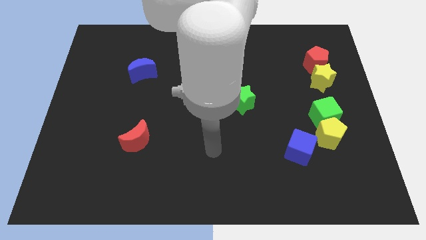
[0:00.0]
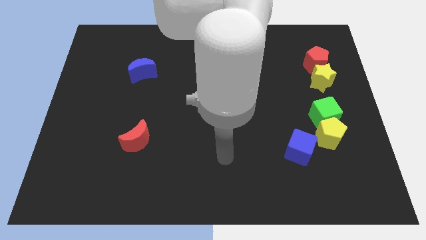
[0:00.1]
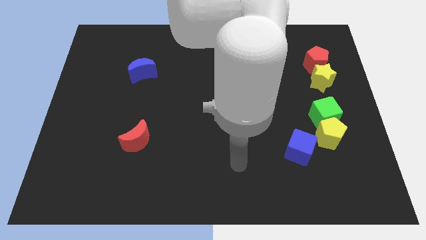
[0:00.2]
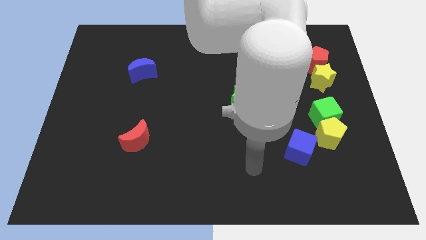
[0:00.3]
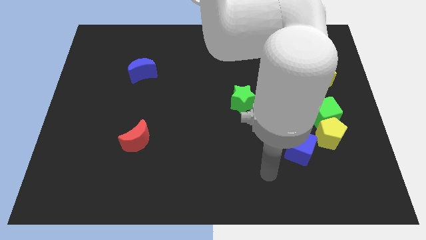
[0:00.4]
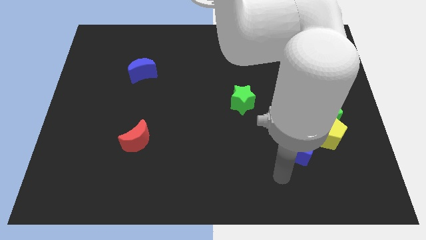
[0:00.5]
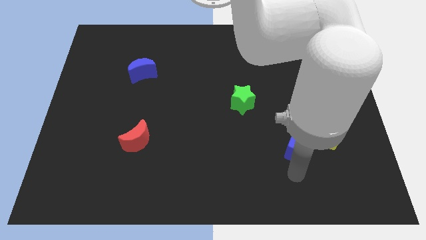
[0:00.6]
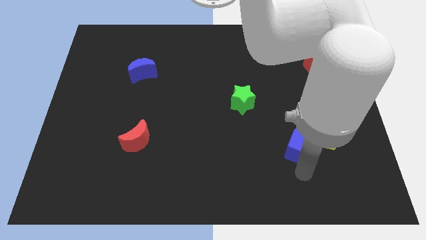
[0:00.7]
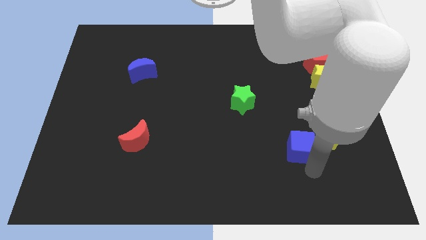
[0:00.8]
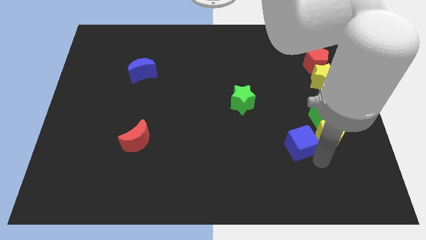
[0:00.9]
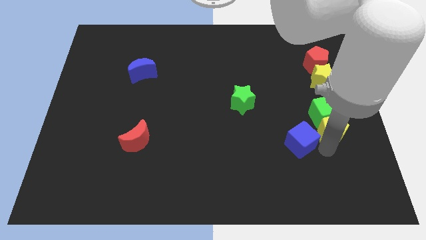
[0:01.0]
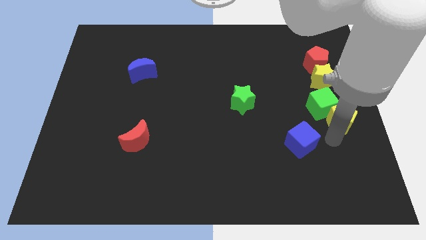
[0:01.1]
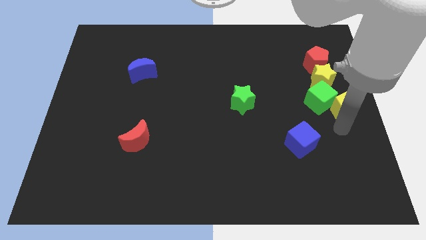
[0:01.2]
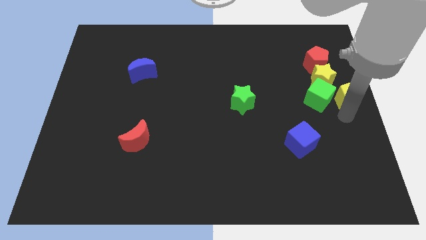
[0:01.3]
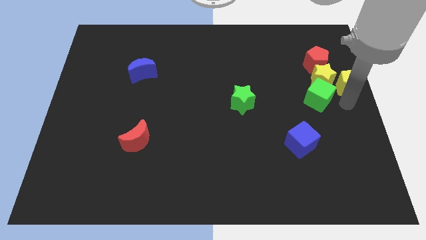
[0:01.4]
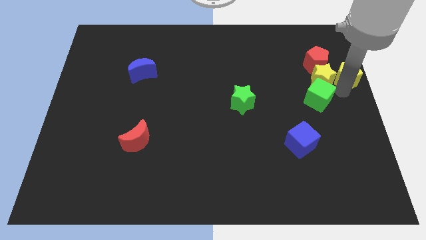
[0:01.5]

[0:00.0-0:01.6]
move the green cube away from the yellow pentagon

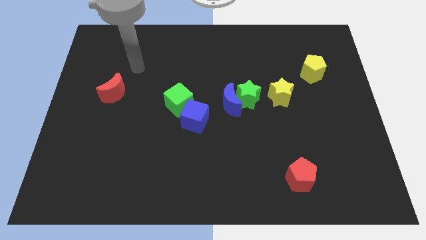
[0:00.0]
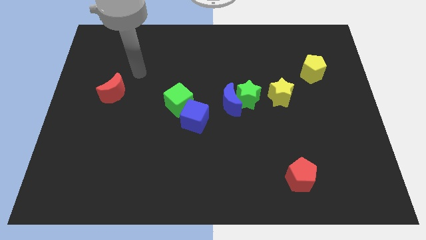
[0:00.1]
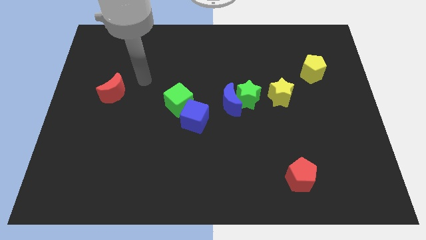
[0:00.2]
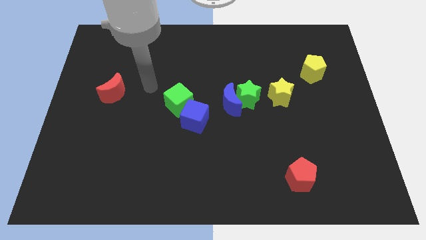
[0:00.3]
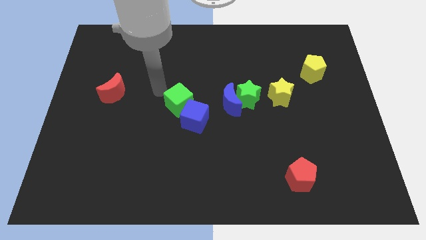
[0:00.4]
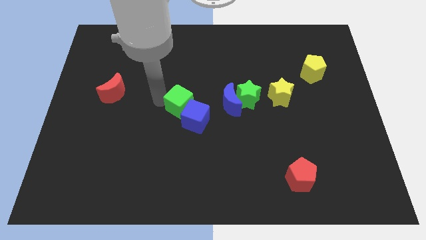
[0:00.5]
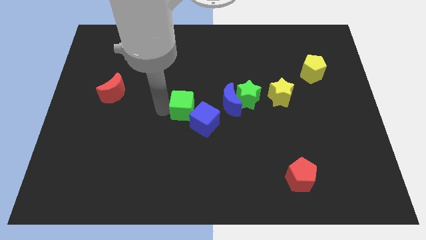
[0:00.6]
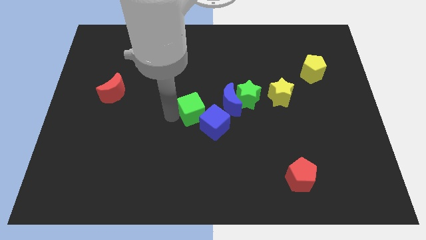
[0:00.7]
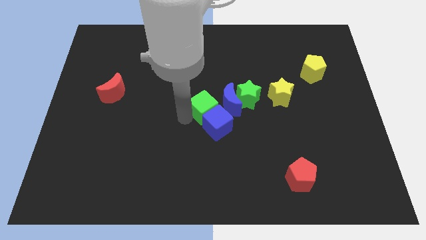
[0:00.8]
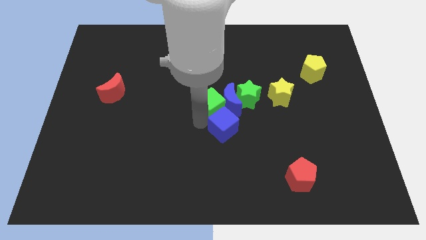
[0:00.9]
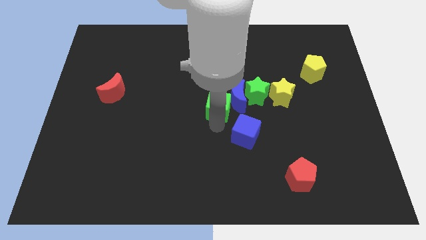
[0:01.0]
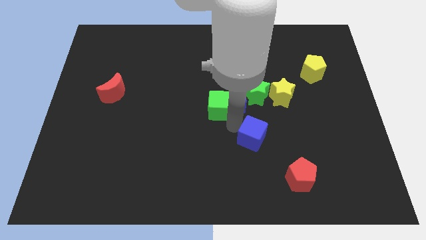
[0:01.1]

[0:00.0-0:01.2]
move the green cube away from the blue cube

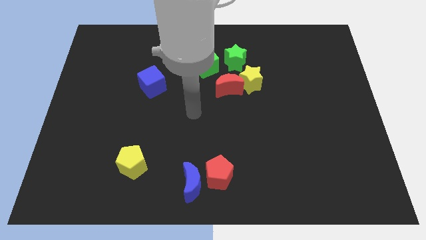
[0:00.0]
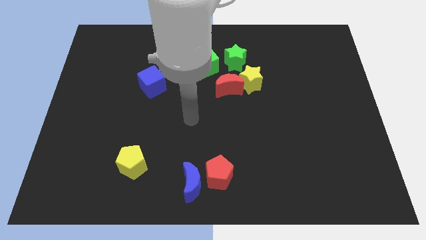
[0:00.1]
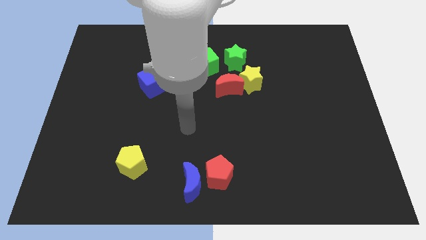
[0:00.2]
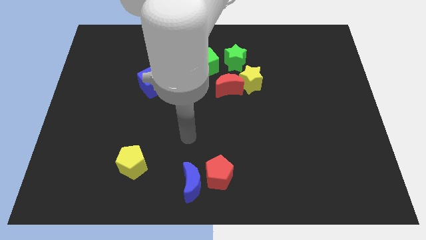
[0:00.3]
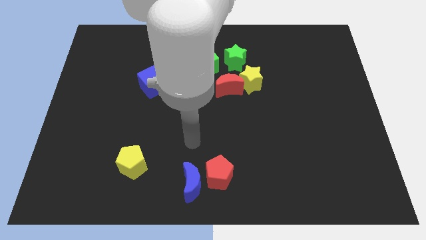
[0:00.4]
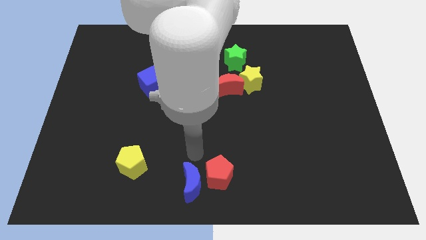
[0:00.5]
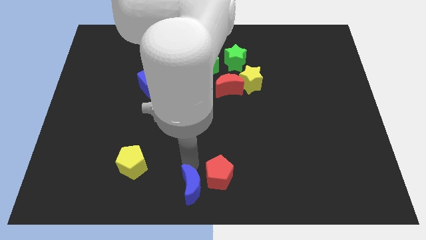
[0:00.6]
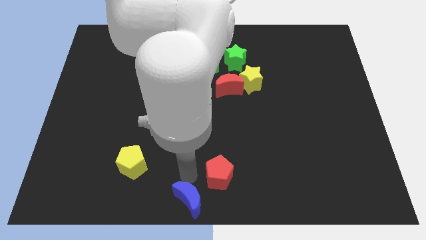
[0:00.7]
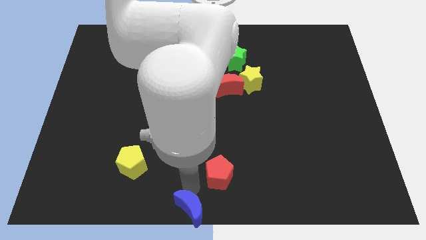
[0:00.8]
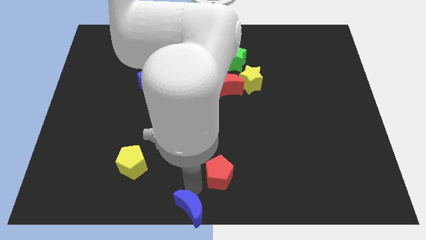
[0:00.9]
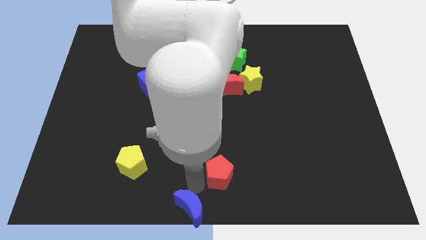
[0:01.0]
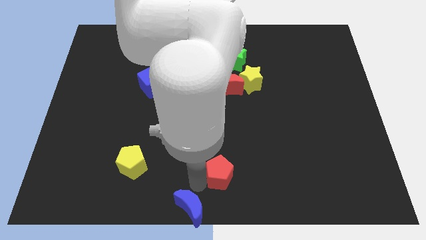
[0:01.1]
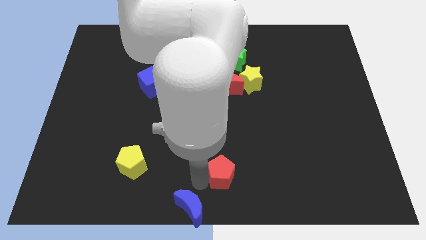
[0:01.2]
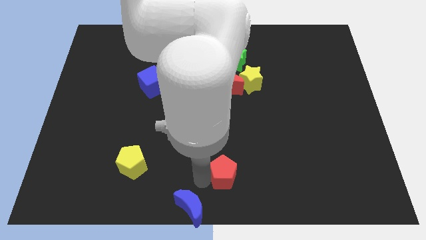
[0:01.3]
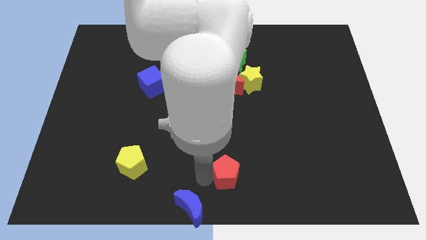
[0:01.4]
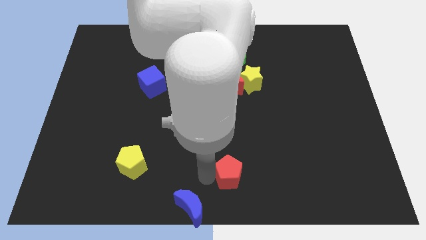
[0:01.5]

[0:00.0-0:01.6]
separate the red pentagon from the blue moon

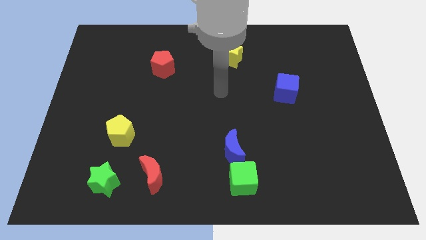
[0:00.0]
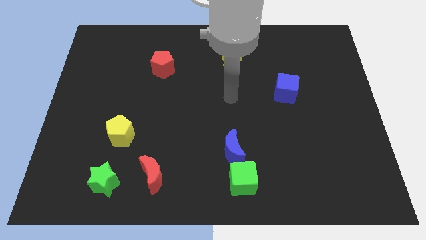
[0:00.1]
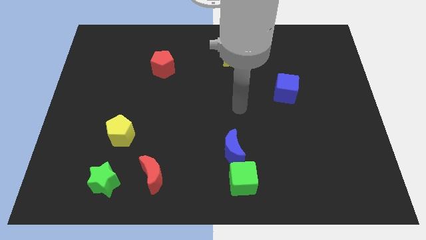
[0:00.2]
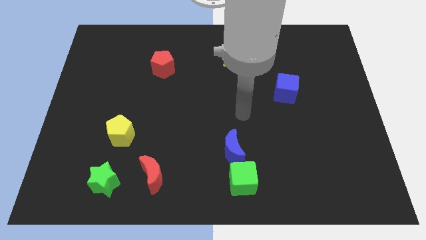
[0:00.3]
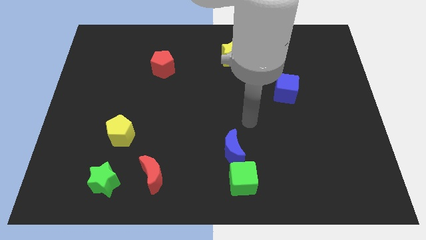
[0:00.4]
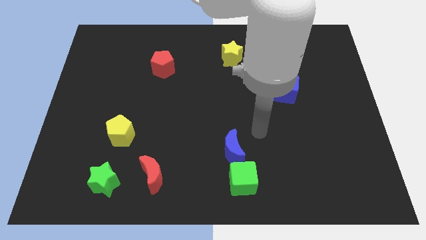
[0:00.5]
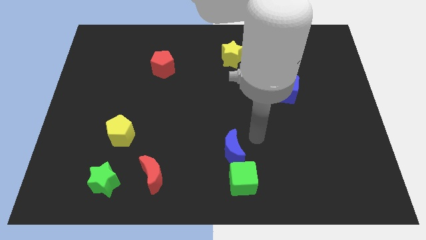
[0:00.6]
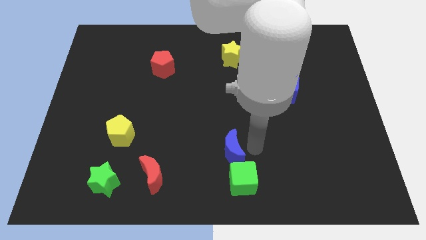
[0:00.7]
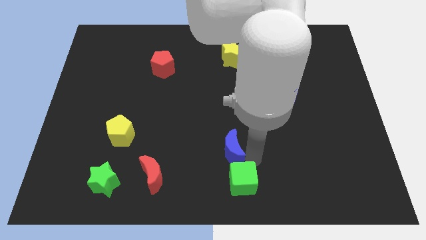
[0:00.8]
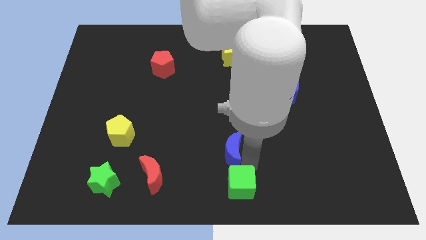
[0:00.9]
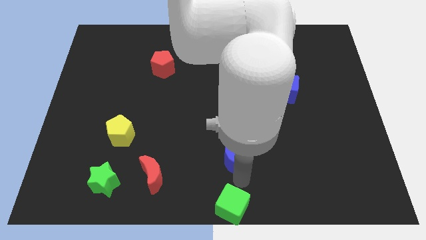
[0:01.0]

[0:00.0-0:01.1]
pull the blue moon apart from the green cube

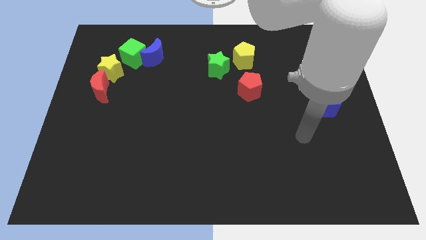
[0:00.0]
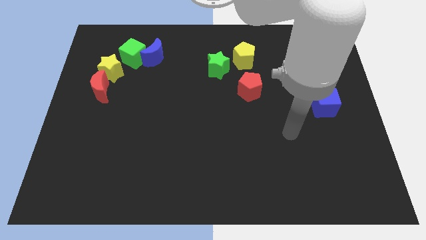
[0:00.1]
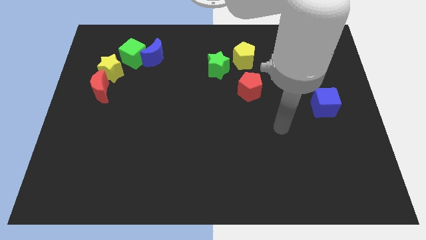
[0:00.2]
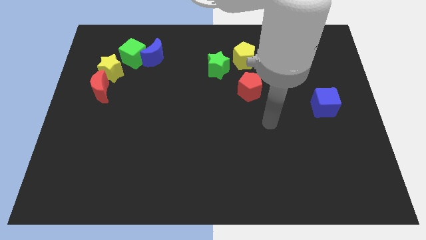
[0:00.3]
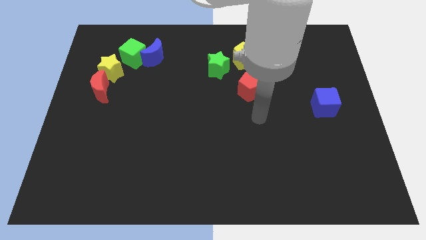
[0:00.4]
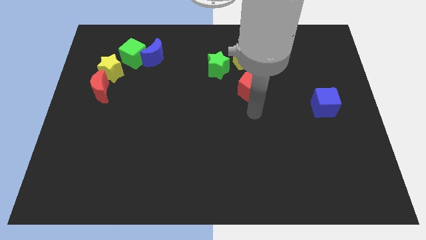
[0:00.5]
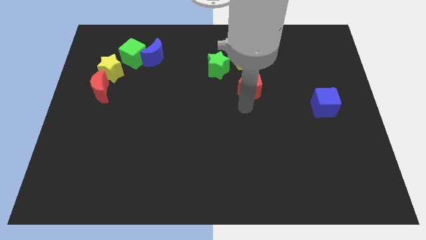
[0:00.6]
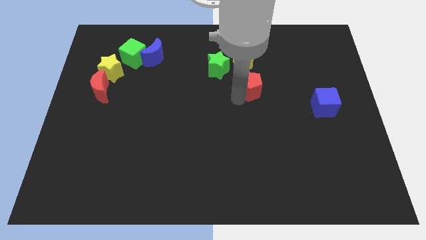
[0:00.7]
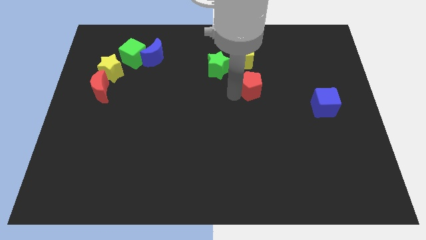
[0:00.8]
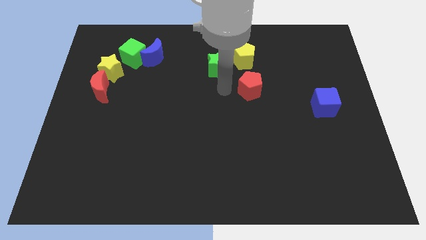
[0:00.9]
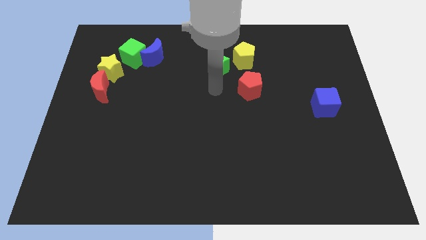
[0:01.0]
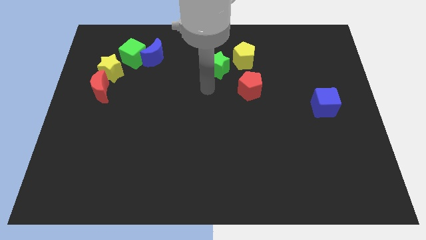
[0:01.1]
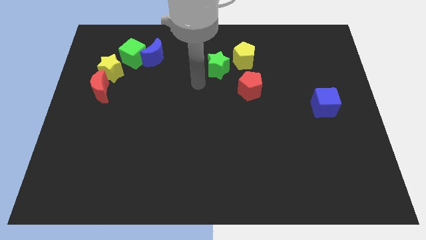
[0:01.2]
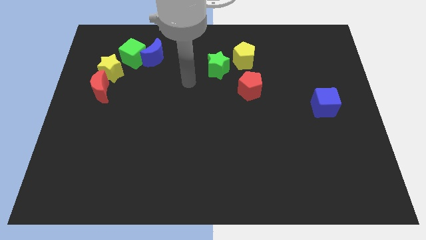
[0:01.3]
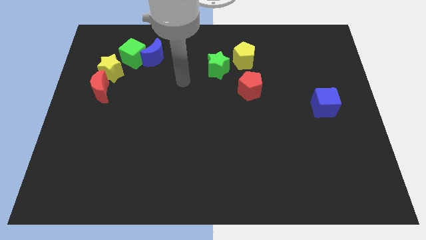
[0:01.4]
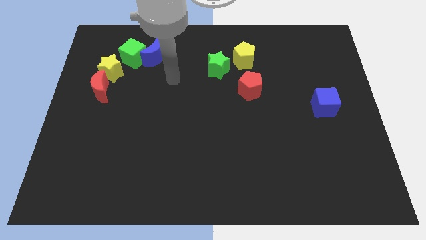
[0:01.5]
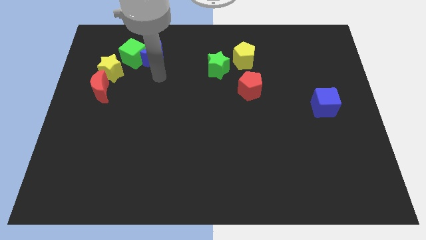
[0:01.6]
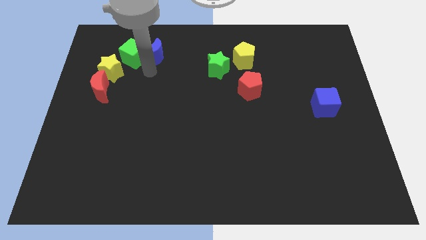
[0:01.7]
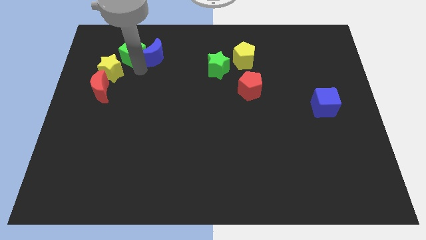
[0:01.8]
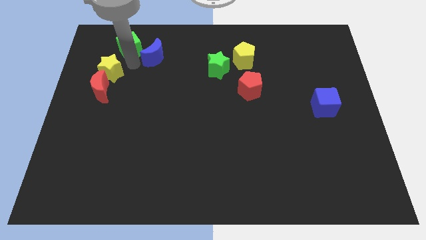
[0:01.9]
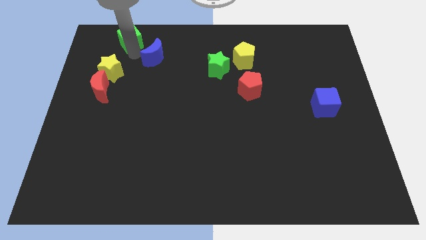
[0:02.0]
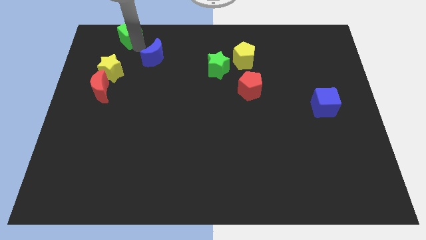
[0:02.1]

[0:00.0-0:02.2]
separate the blue moon from the green cube

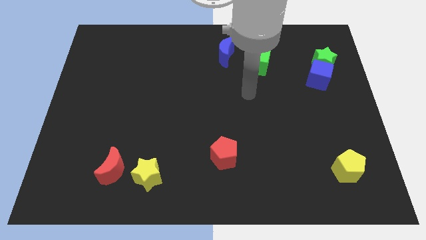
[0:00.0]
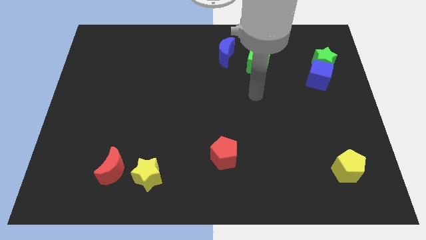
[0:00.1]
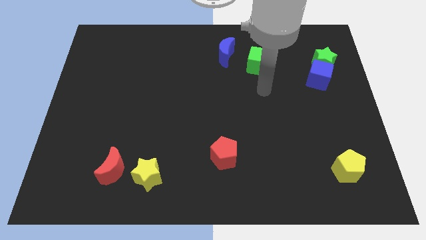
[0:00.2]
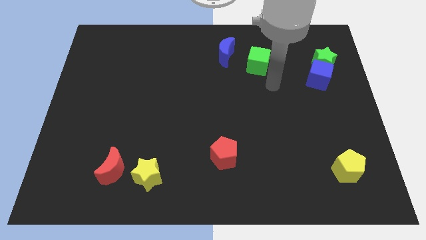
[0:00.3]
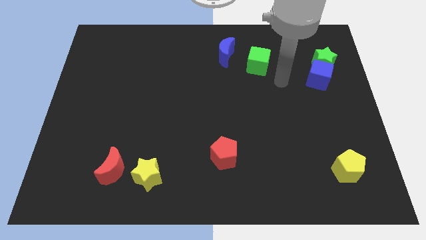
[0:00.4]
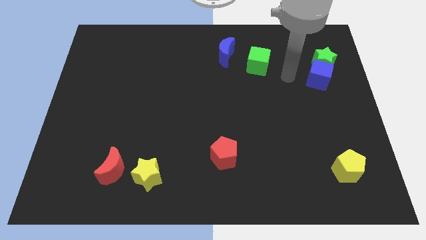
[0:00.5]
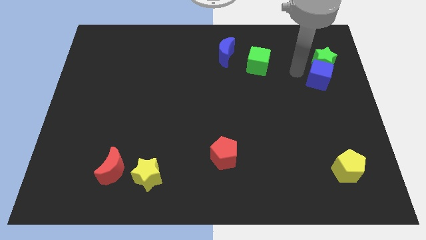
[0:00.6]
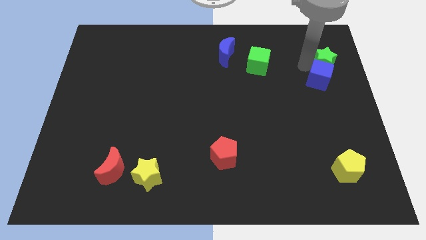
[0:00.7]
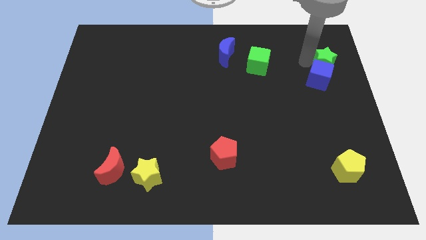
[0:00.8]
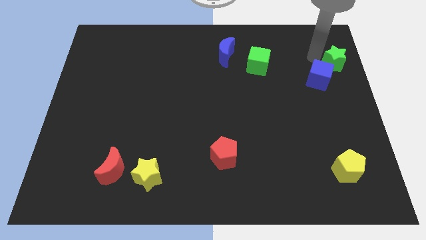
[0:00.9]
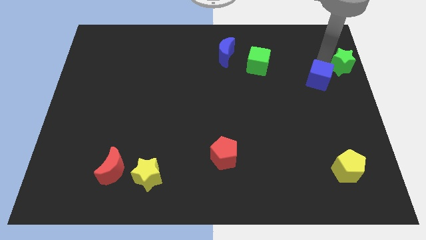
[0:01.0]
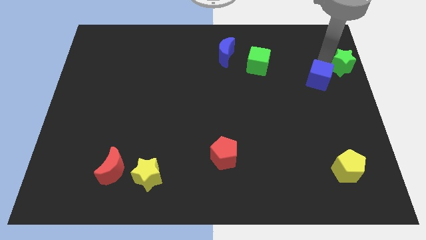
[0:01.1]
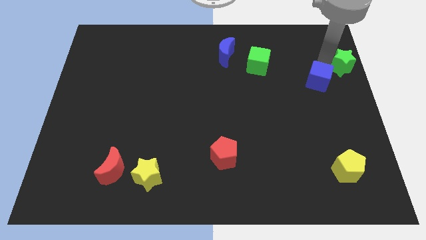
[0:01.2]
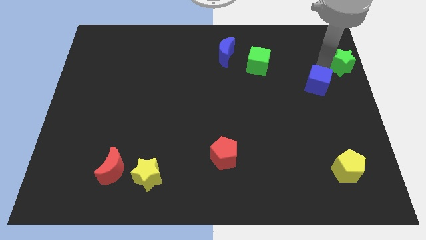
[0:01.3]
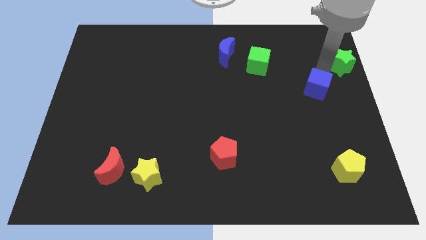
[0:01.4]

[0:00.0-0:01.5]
move the blue cube away from the green star
